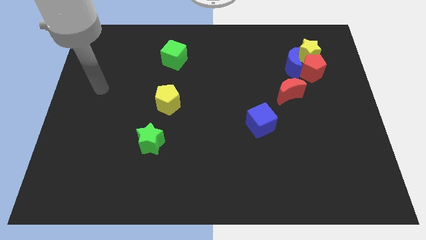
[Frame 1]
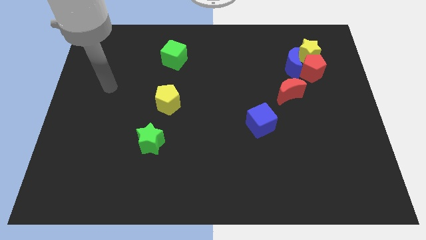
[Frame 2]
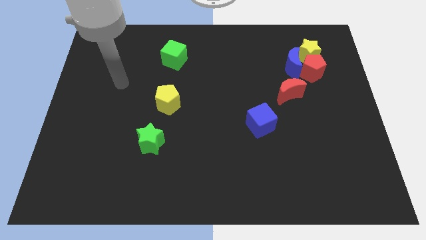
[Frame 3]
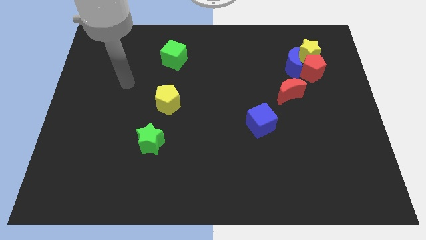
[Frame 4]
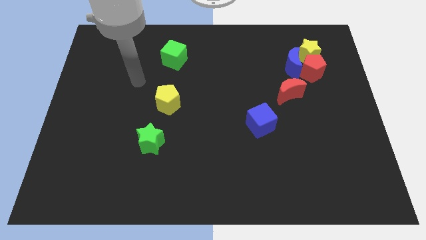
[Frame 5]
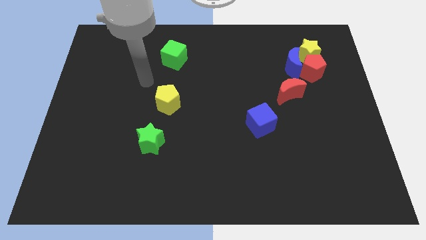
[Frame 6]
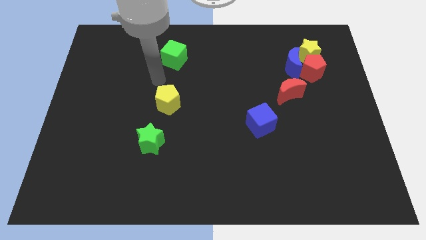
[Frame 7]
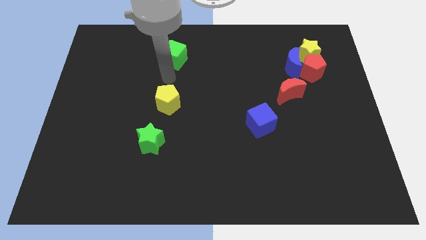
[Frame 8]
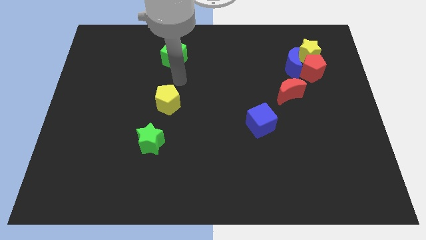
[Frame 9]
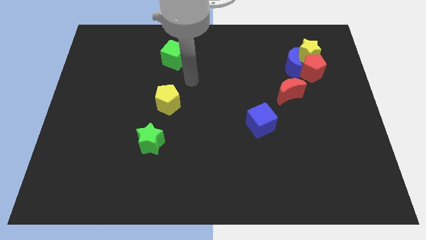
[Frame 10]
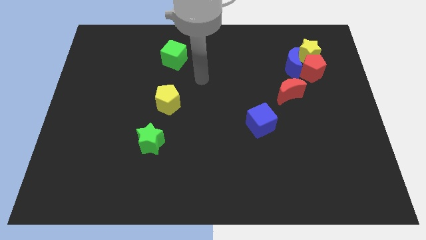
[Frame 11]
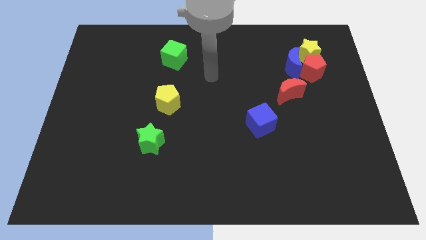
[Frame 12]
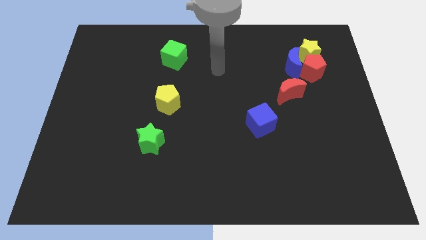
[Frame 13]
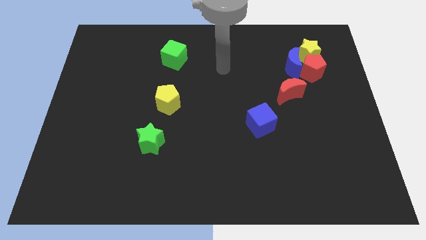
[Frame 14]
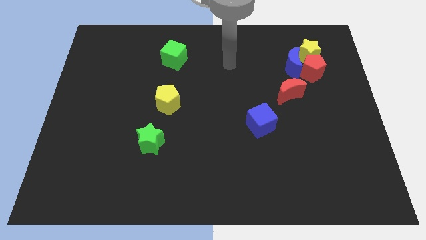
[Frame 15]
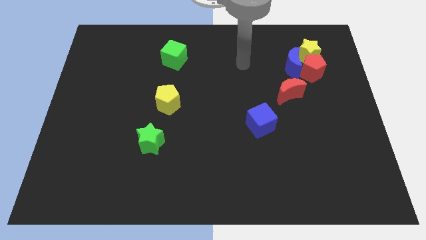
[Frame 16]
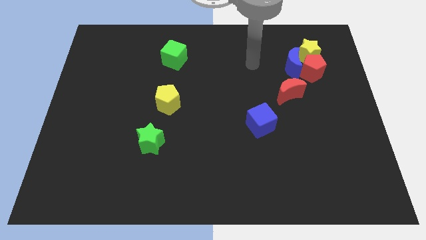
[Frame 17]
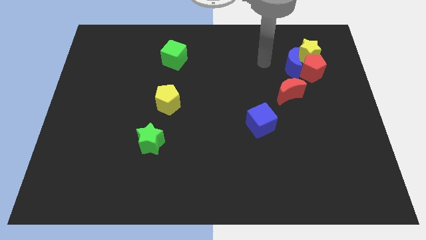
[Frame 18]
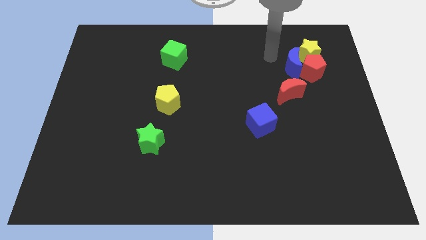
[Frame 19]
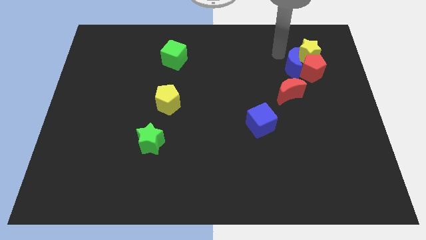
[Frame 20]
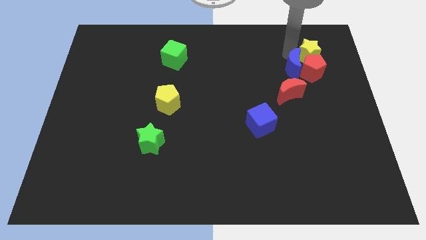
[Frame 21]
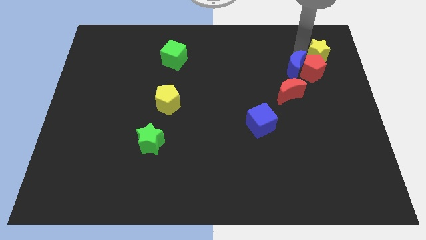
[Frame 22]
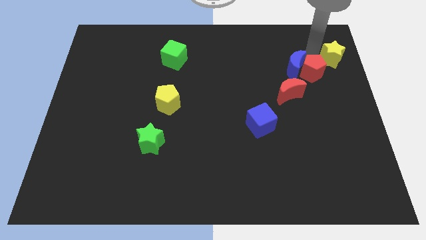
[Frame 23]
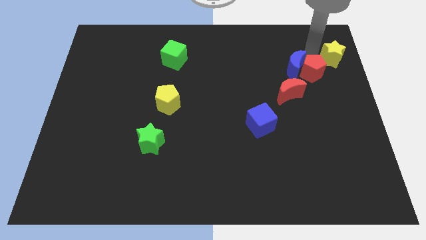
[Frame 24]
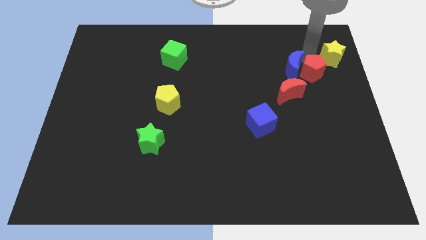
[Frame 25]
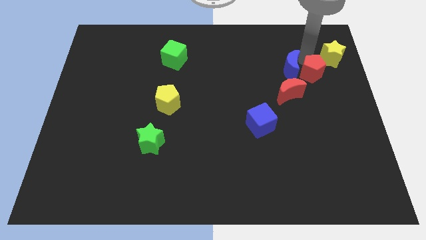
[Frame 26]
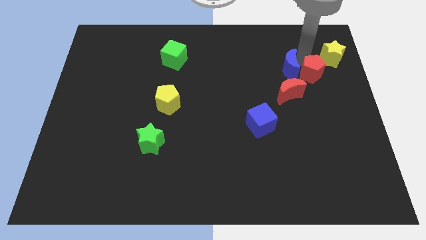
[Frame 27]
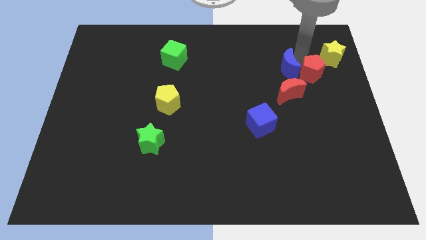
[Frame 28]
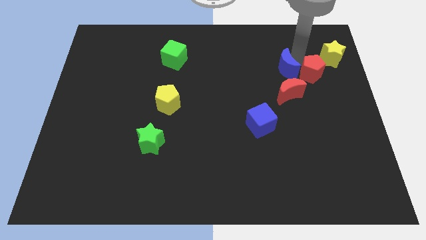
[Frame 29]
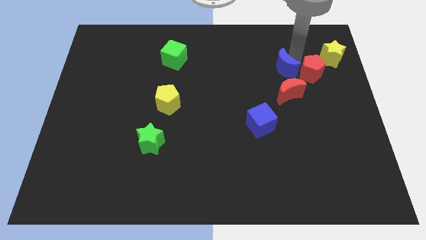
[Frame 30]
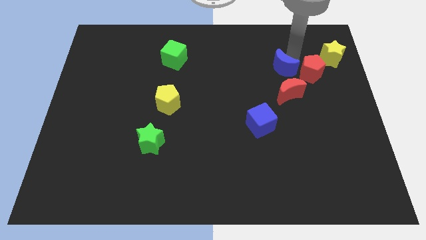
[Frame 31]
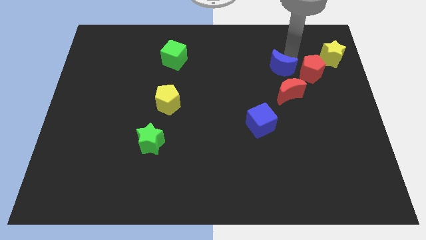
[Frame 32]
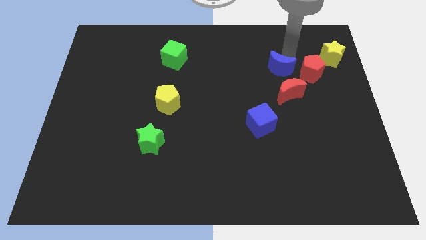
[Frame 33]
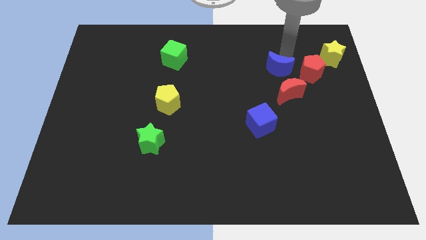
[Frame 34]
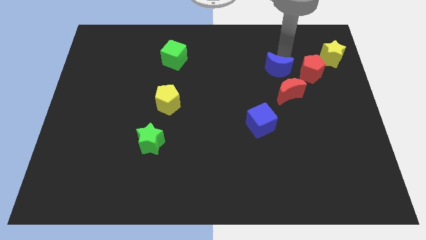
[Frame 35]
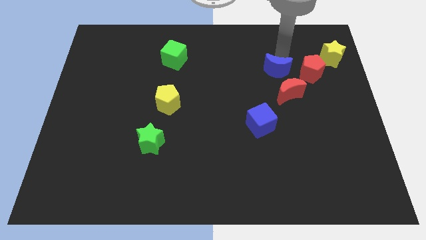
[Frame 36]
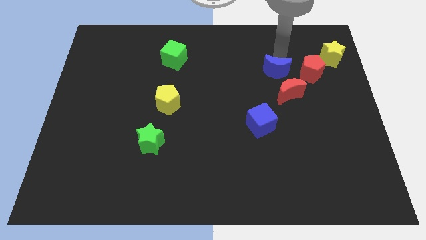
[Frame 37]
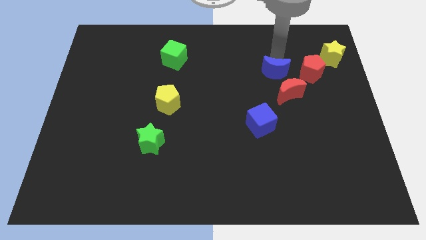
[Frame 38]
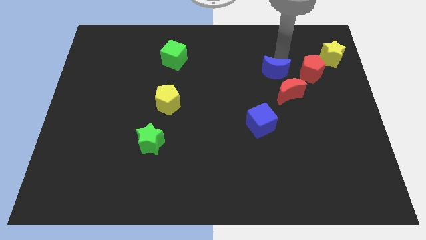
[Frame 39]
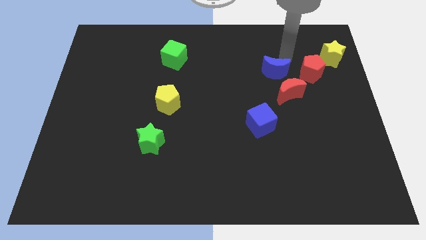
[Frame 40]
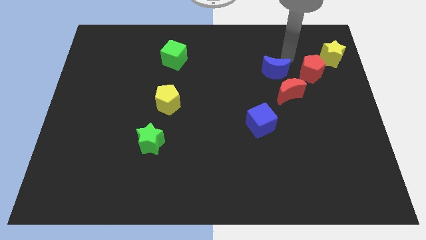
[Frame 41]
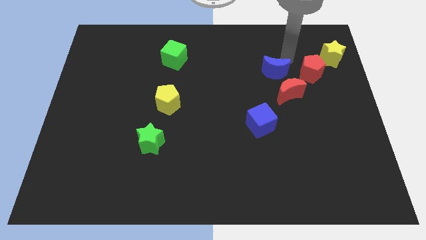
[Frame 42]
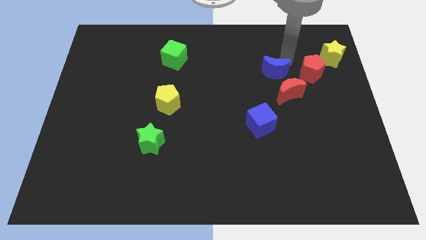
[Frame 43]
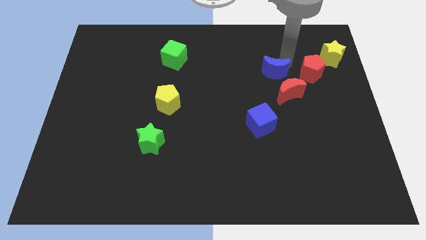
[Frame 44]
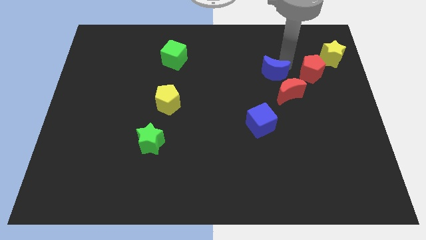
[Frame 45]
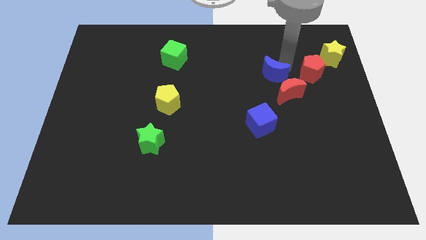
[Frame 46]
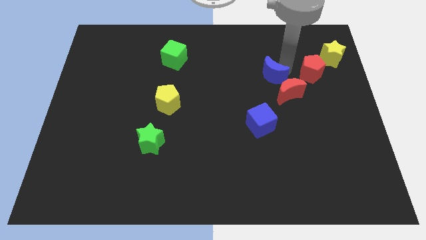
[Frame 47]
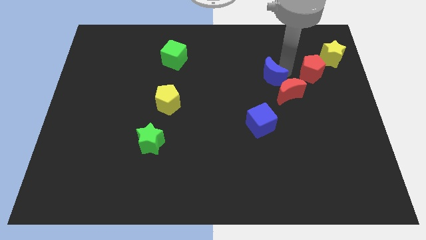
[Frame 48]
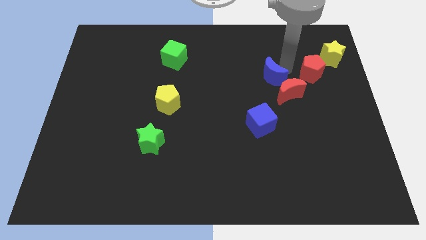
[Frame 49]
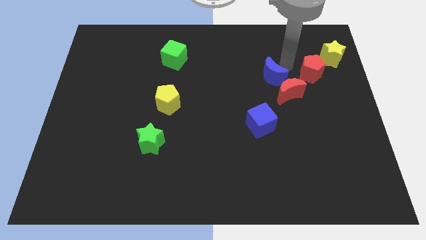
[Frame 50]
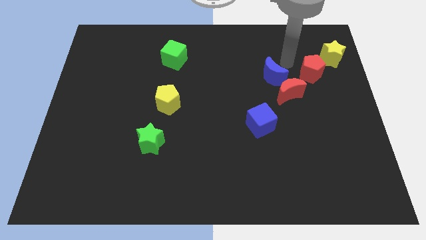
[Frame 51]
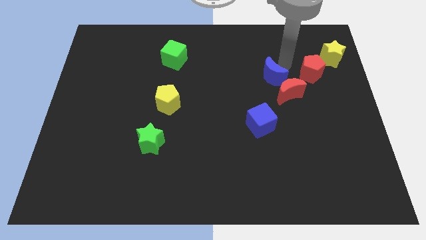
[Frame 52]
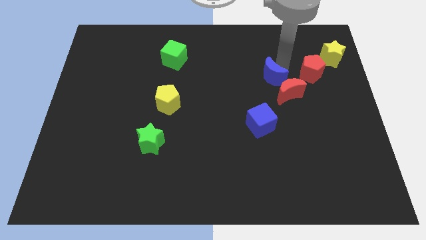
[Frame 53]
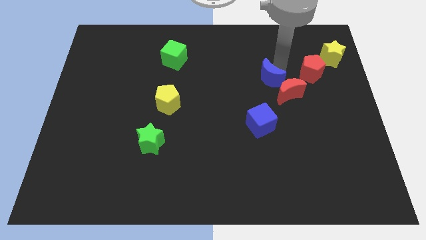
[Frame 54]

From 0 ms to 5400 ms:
move the blue moon a little bit down and to the left

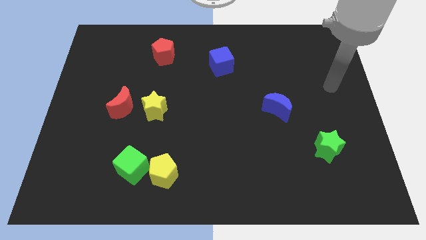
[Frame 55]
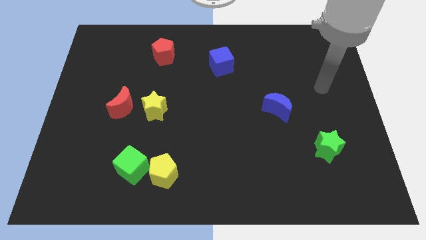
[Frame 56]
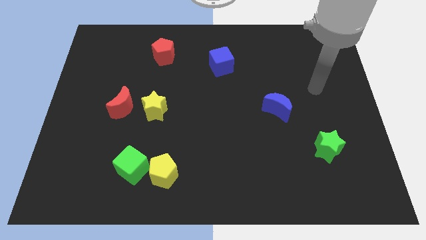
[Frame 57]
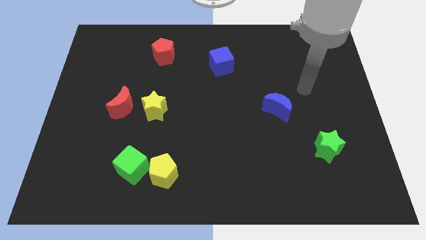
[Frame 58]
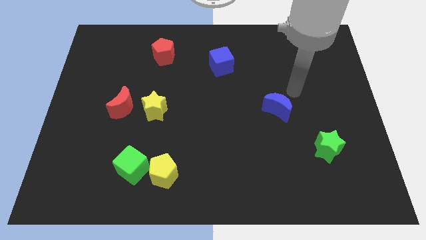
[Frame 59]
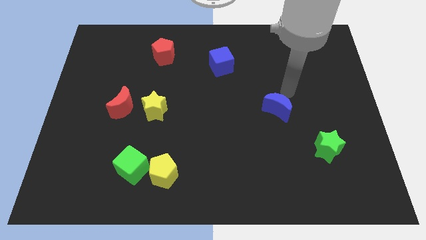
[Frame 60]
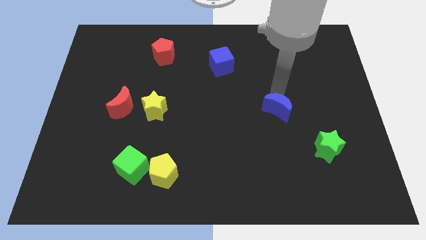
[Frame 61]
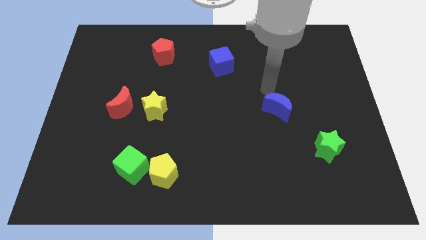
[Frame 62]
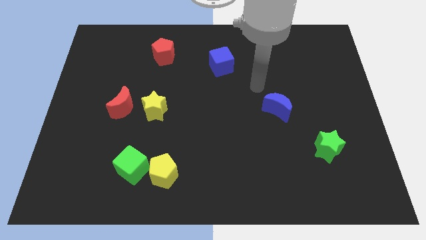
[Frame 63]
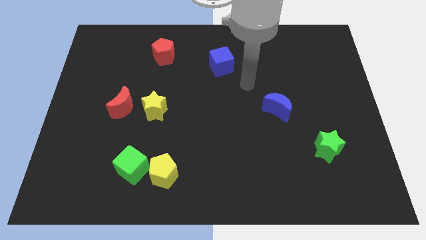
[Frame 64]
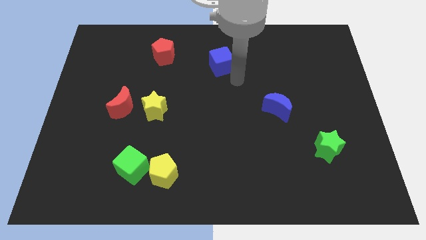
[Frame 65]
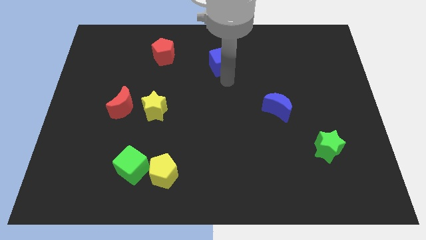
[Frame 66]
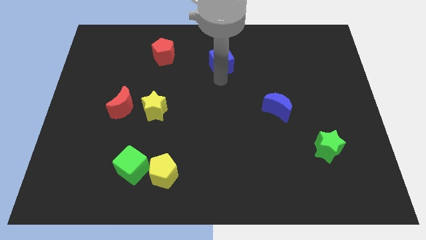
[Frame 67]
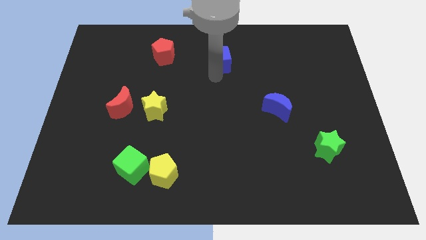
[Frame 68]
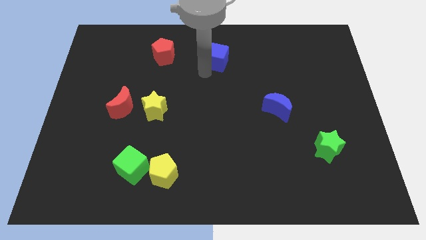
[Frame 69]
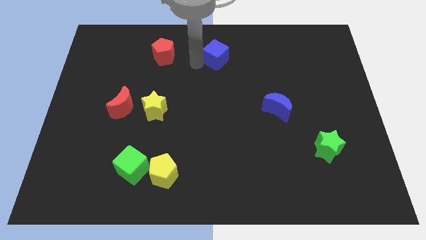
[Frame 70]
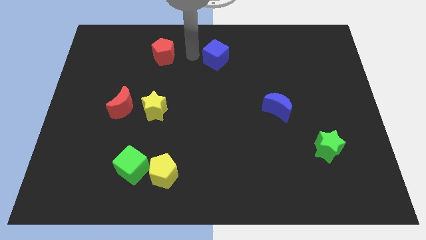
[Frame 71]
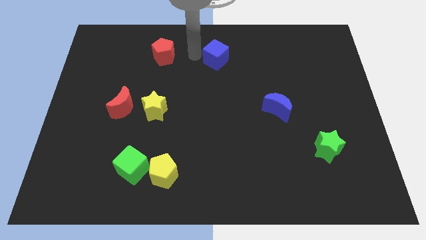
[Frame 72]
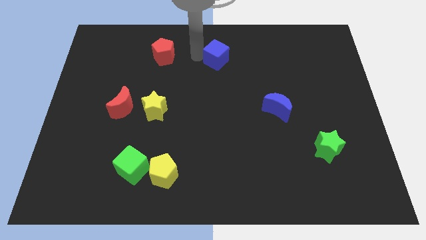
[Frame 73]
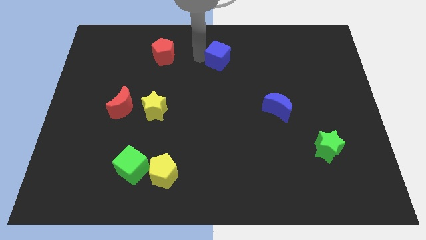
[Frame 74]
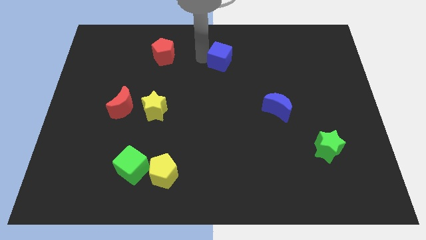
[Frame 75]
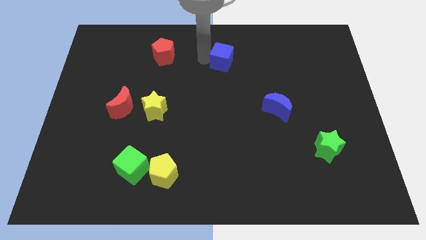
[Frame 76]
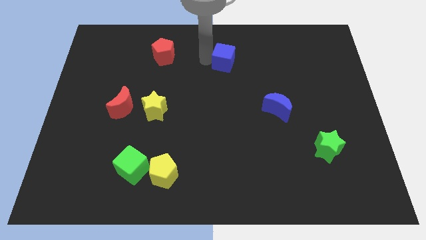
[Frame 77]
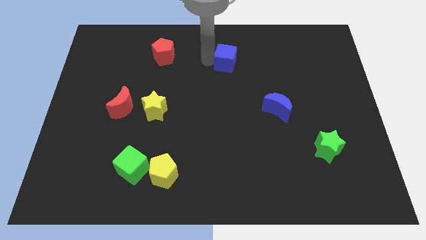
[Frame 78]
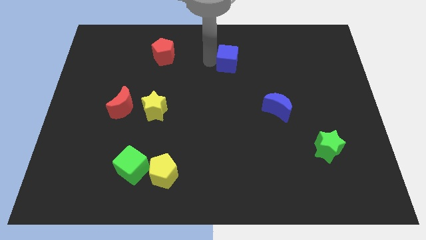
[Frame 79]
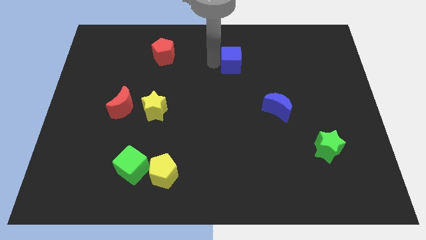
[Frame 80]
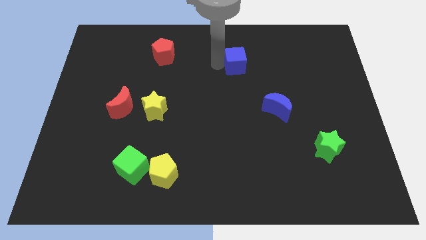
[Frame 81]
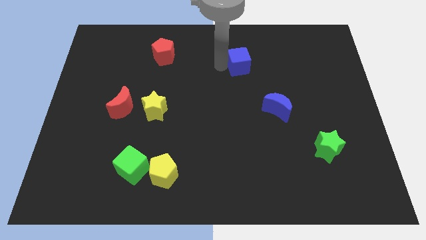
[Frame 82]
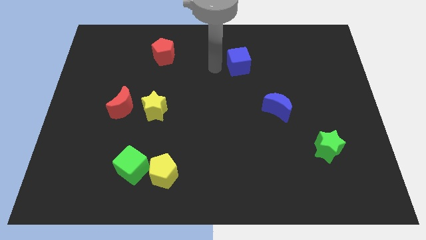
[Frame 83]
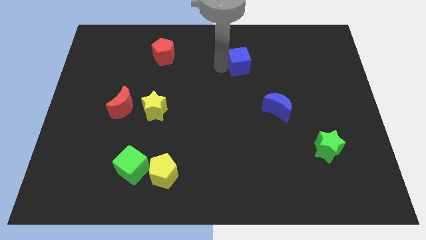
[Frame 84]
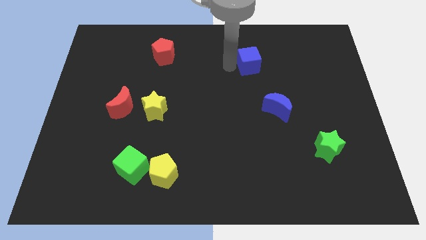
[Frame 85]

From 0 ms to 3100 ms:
slightly push the blue cube to the right
